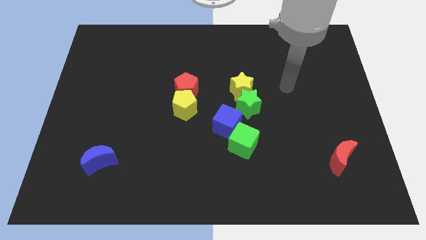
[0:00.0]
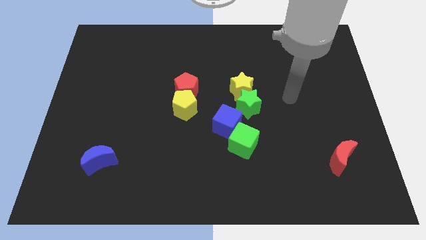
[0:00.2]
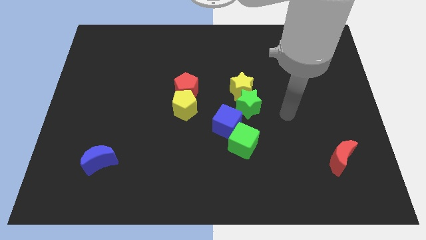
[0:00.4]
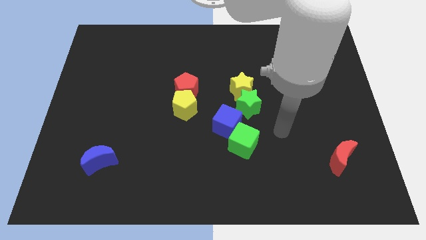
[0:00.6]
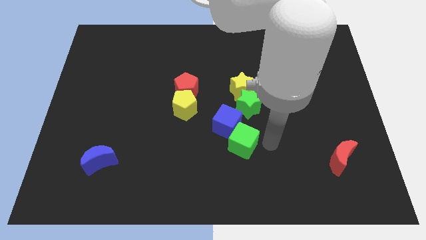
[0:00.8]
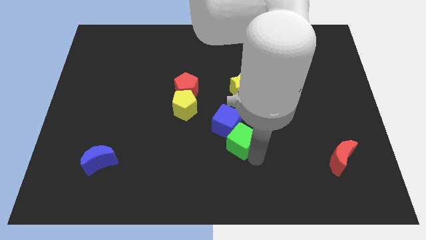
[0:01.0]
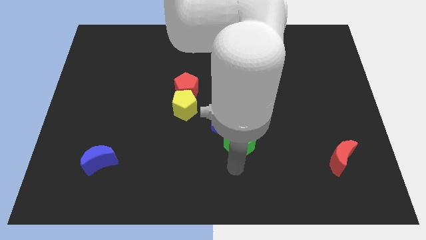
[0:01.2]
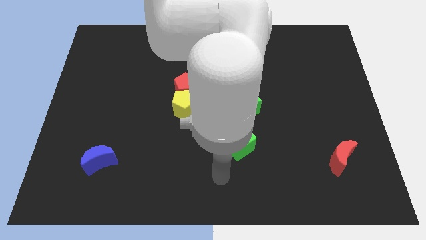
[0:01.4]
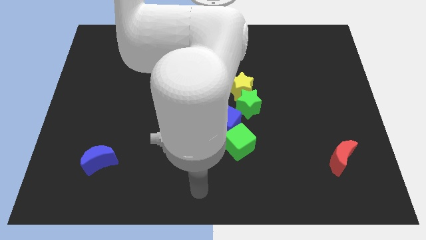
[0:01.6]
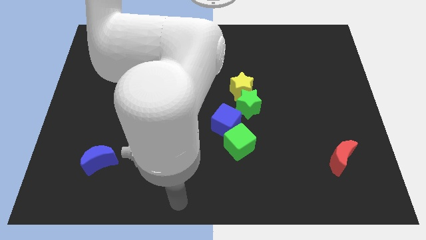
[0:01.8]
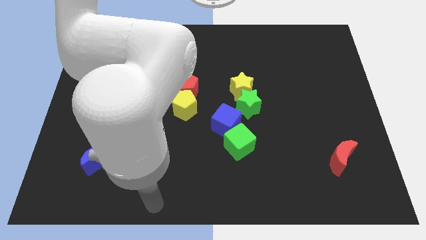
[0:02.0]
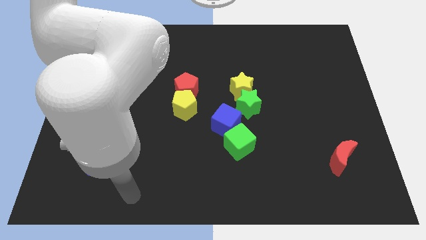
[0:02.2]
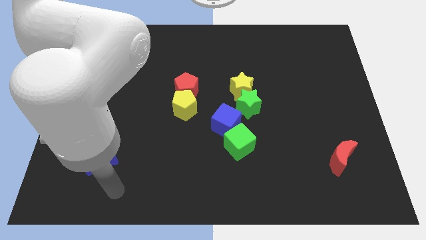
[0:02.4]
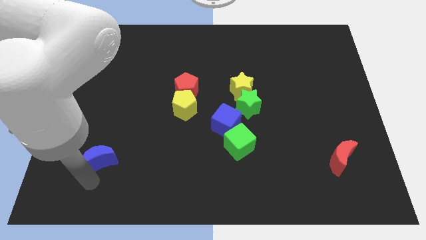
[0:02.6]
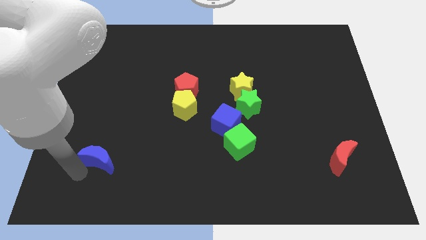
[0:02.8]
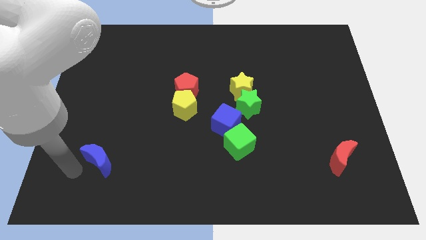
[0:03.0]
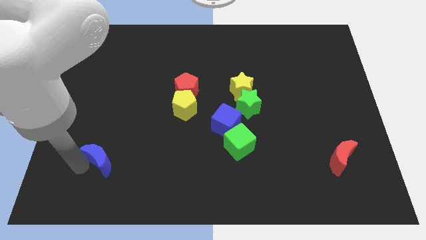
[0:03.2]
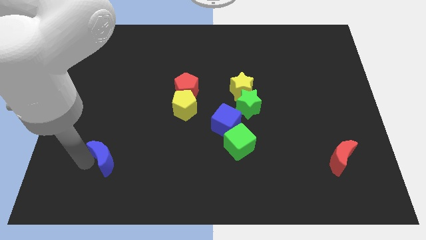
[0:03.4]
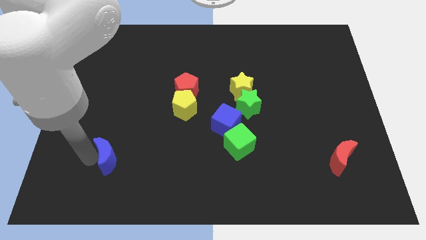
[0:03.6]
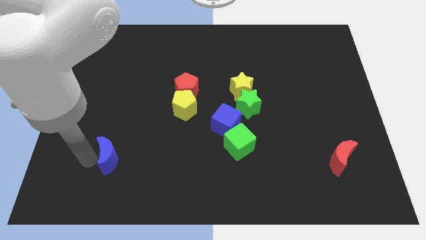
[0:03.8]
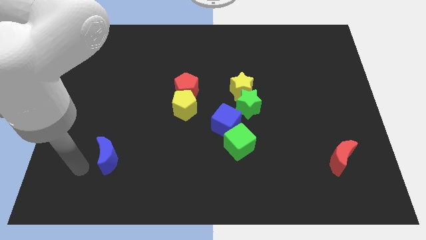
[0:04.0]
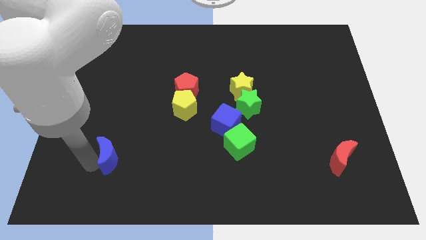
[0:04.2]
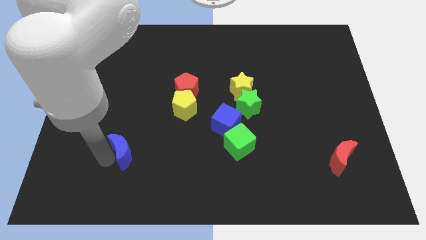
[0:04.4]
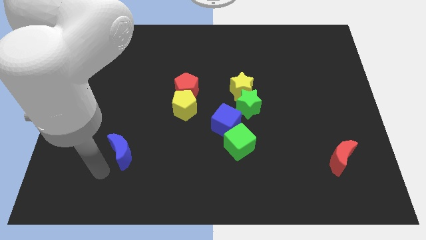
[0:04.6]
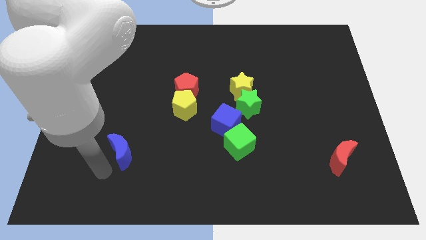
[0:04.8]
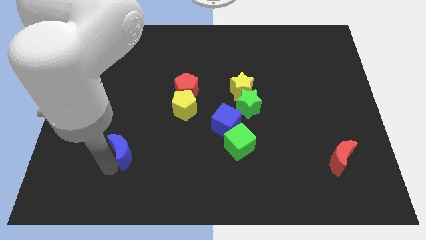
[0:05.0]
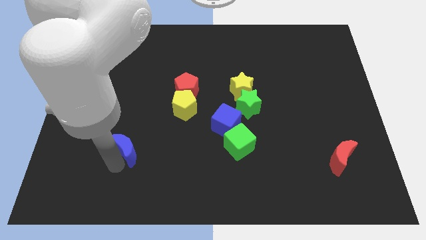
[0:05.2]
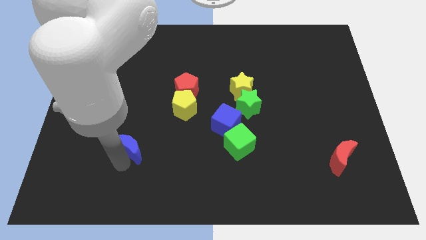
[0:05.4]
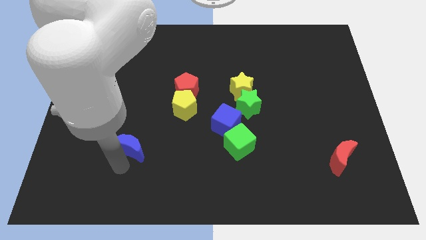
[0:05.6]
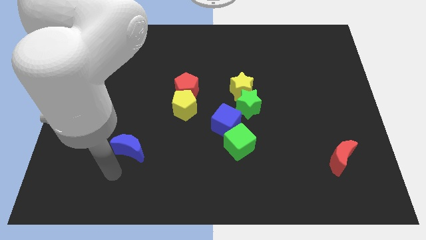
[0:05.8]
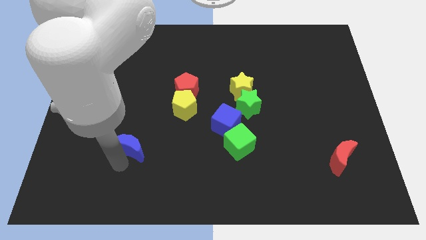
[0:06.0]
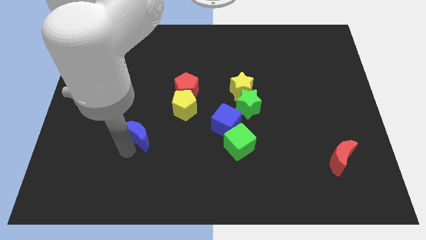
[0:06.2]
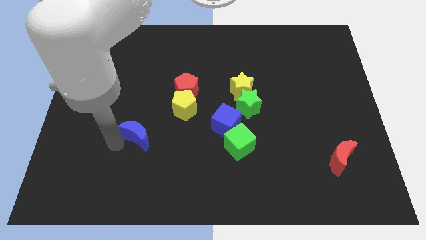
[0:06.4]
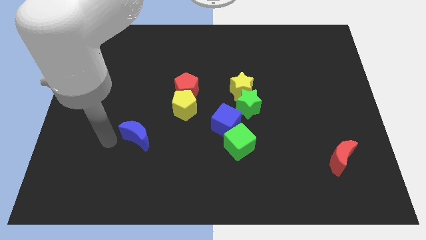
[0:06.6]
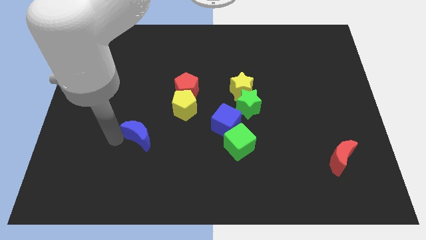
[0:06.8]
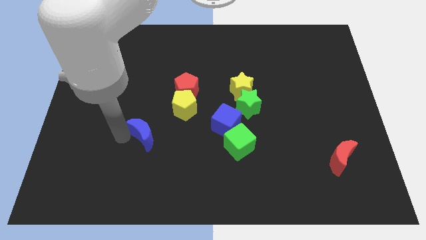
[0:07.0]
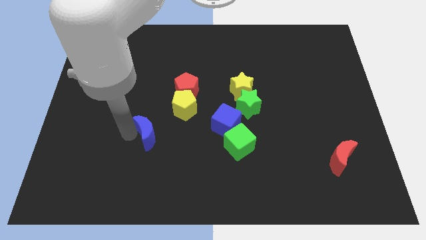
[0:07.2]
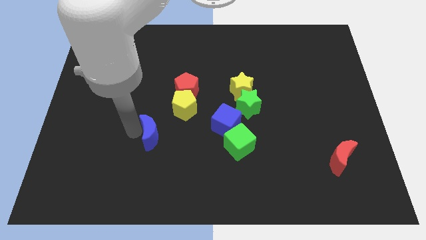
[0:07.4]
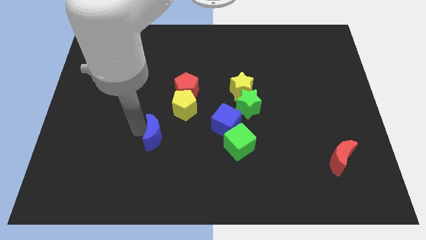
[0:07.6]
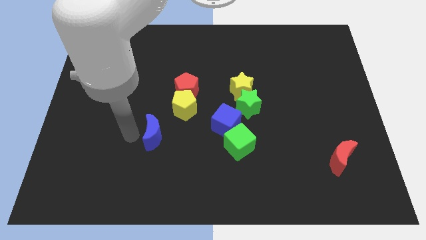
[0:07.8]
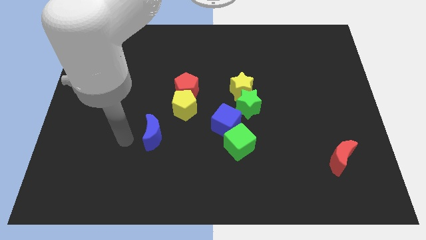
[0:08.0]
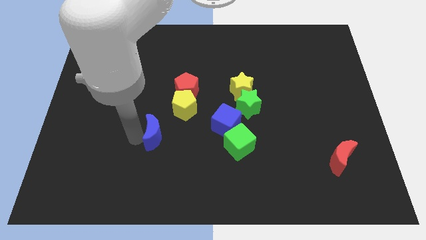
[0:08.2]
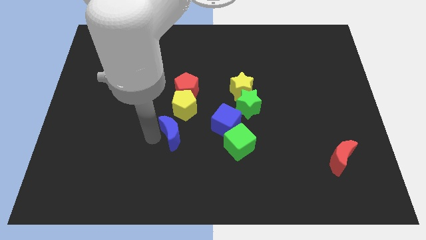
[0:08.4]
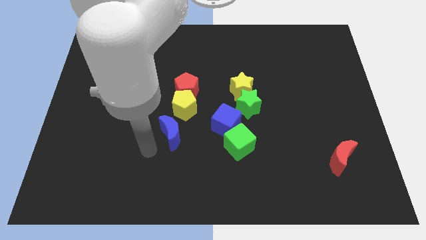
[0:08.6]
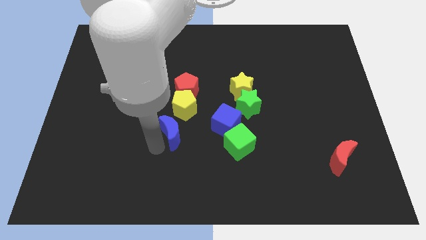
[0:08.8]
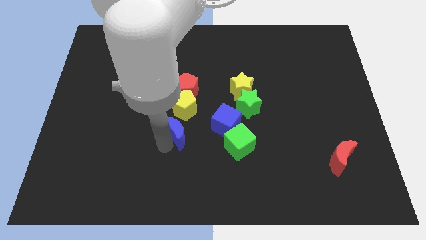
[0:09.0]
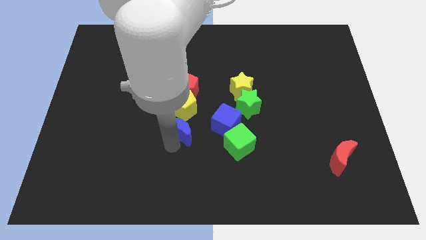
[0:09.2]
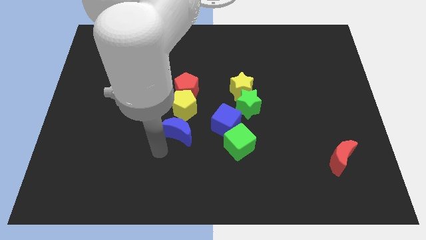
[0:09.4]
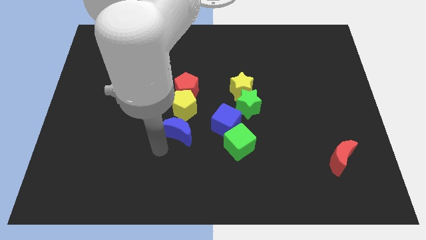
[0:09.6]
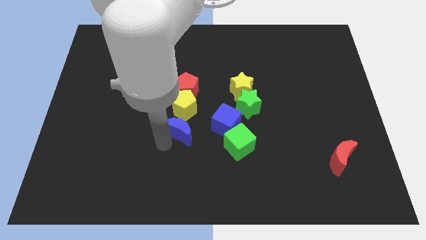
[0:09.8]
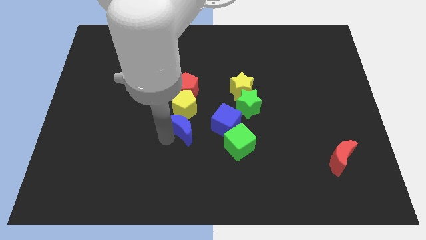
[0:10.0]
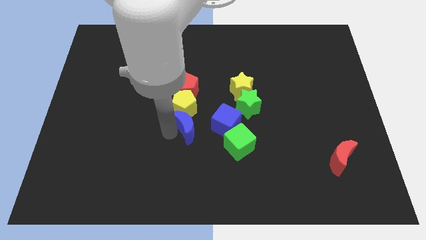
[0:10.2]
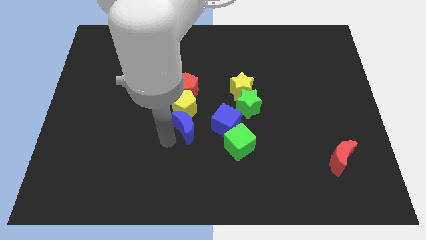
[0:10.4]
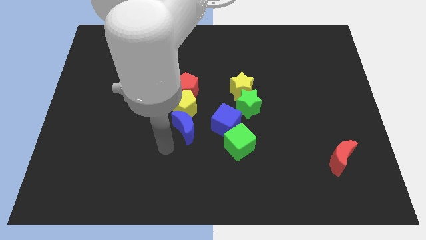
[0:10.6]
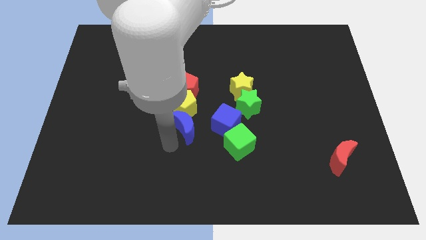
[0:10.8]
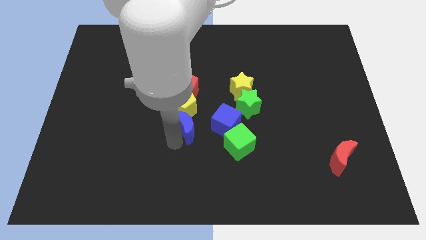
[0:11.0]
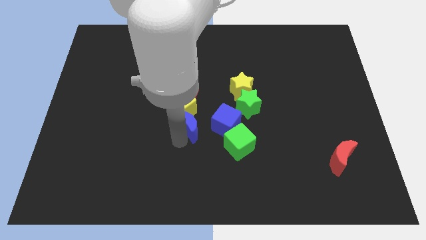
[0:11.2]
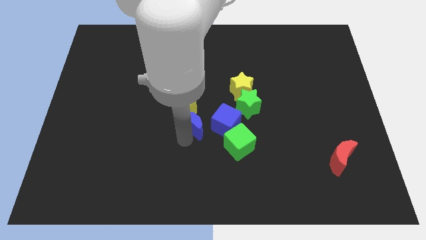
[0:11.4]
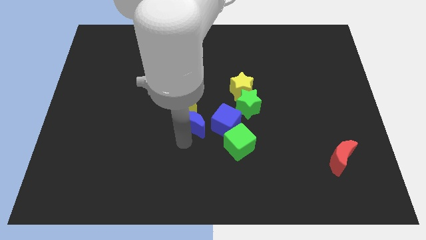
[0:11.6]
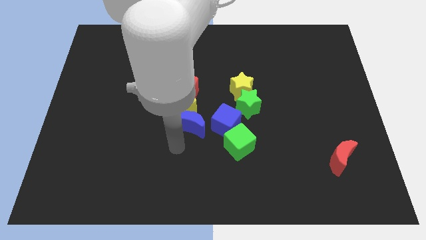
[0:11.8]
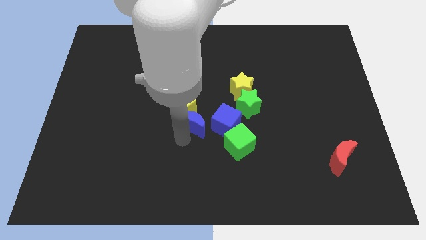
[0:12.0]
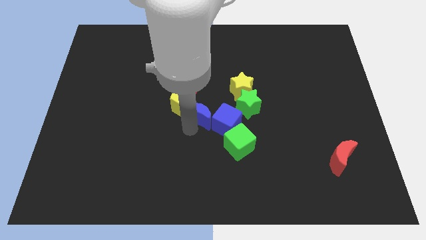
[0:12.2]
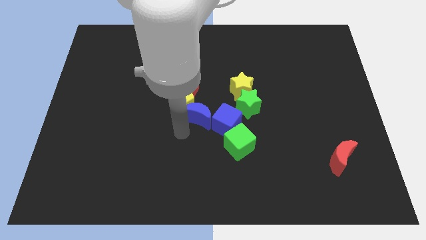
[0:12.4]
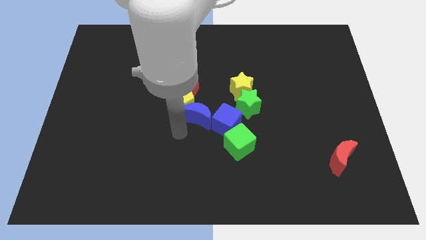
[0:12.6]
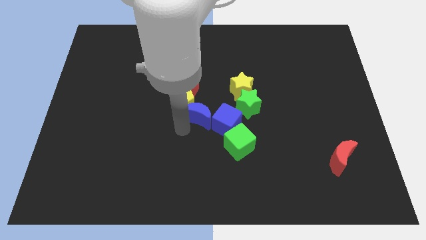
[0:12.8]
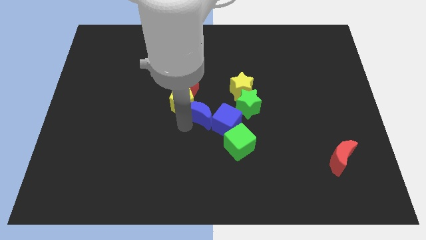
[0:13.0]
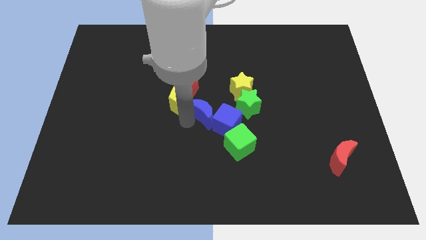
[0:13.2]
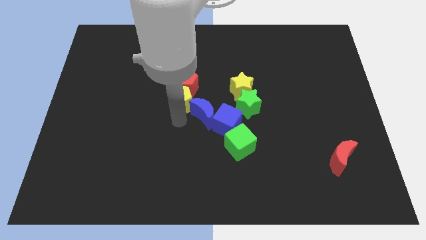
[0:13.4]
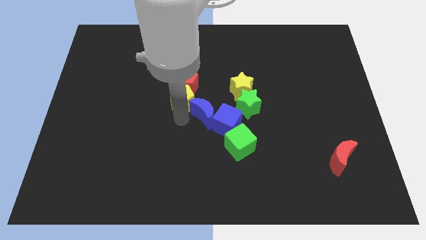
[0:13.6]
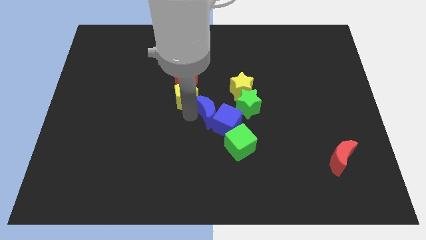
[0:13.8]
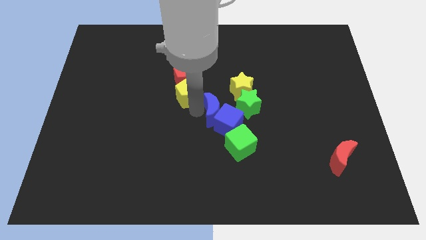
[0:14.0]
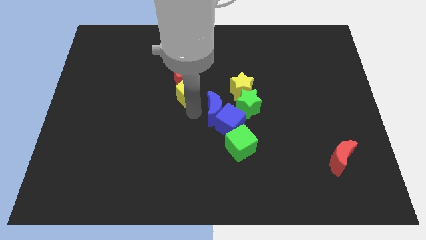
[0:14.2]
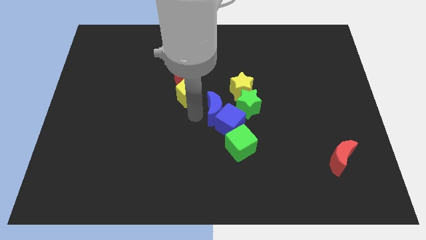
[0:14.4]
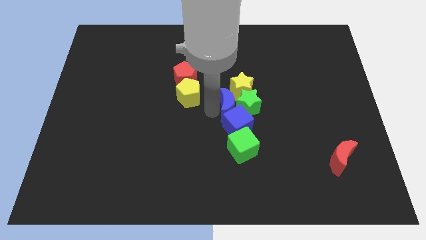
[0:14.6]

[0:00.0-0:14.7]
slide the blue moon next to the green star
